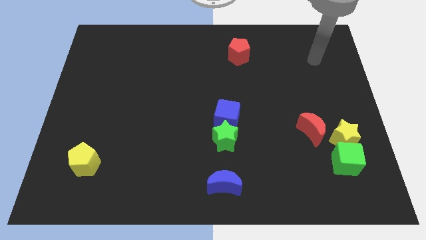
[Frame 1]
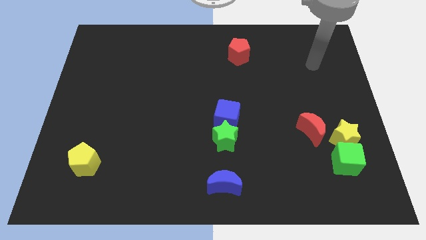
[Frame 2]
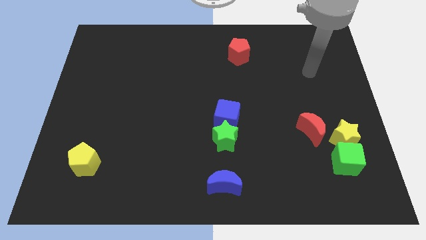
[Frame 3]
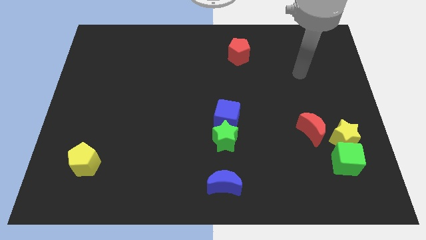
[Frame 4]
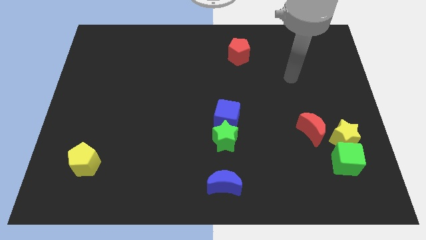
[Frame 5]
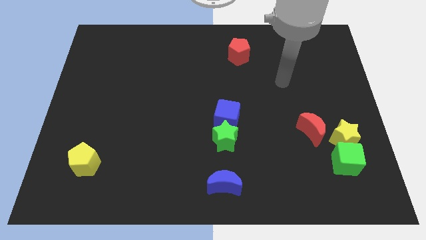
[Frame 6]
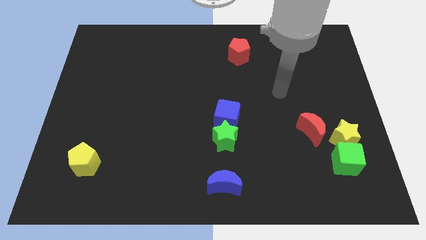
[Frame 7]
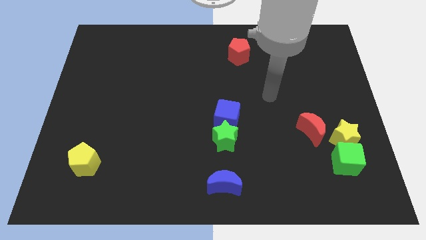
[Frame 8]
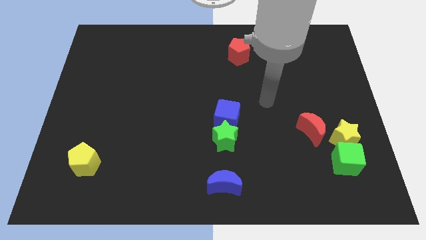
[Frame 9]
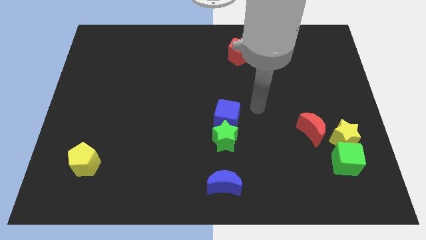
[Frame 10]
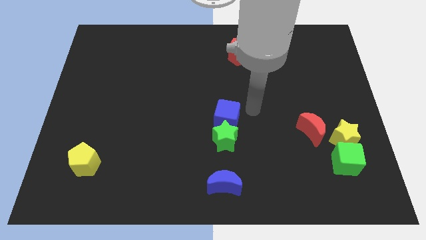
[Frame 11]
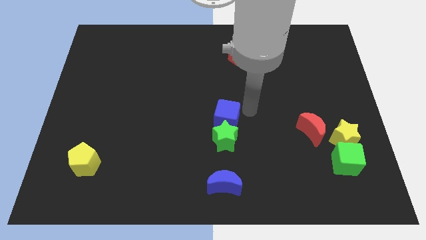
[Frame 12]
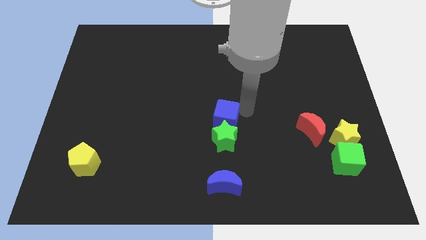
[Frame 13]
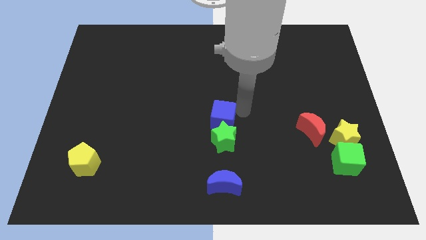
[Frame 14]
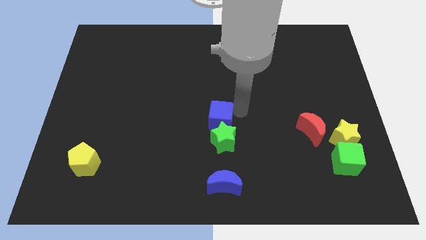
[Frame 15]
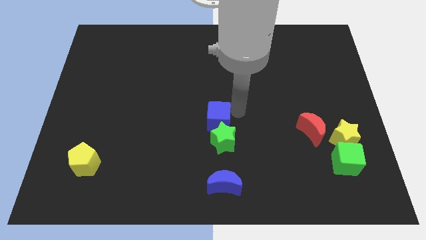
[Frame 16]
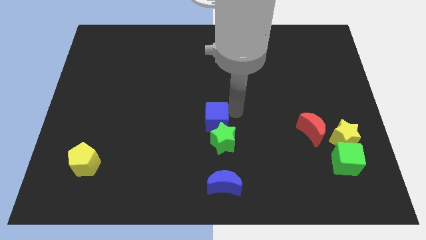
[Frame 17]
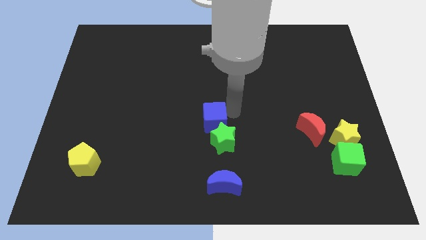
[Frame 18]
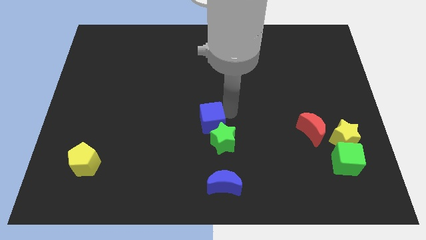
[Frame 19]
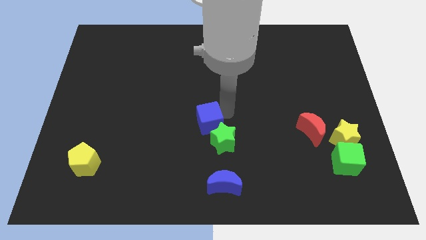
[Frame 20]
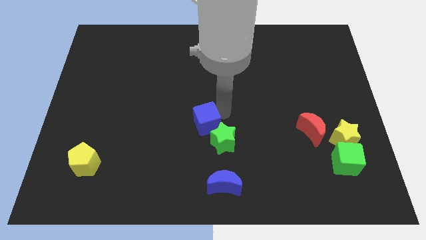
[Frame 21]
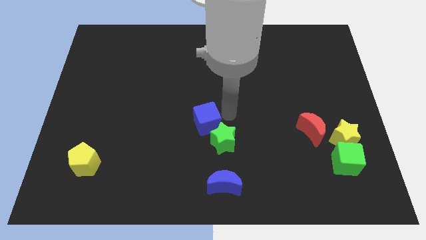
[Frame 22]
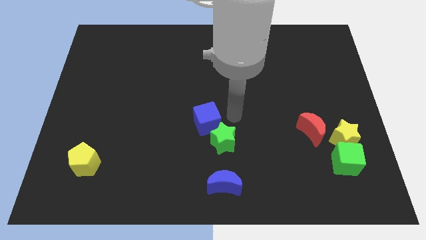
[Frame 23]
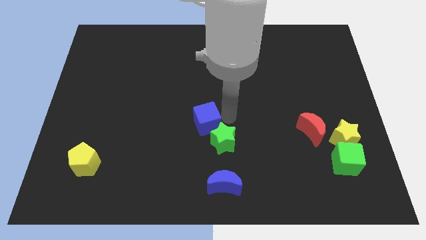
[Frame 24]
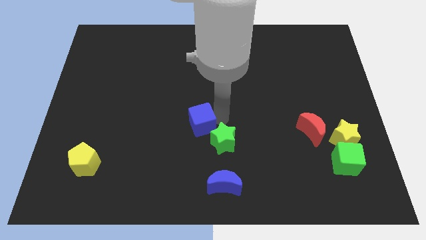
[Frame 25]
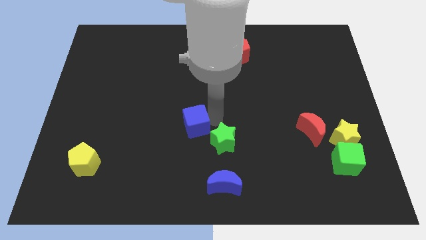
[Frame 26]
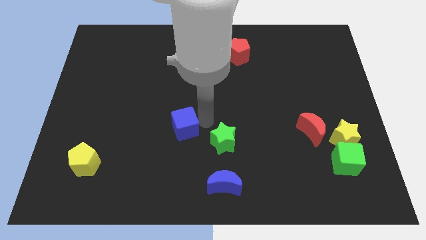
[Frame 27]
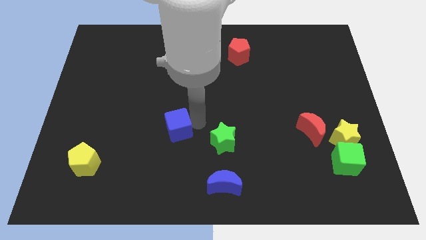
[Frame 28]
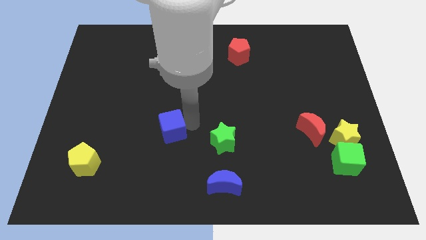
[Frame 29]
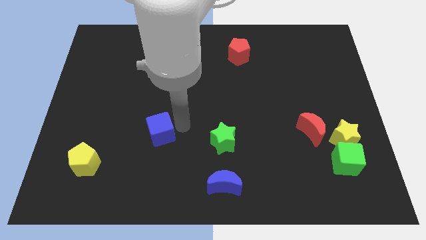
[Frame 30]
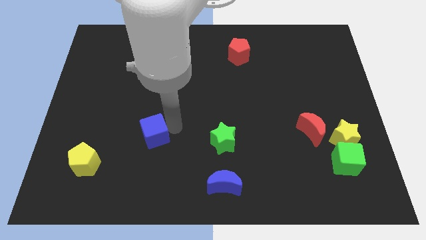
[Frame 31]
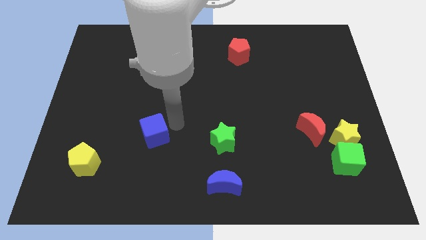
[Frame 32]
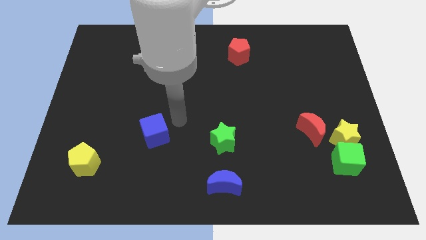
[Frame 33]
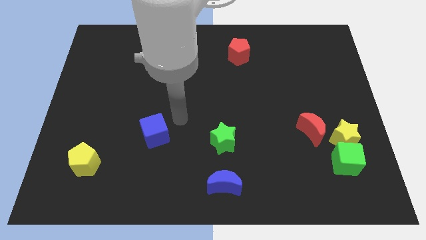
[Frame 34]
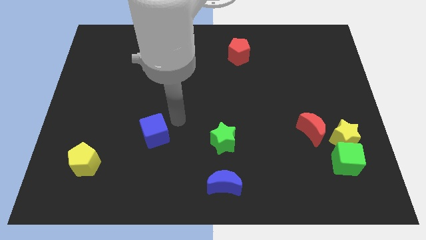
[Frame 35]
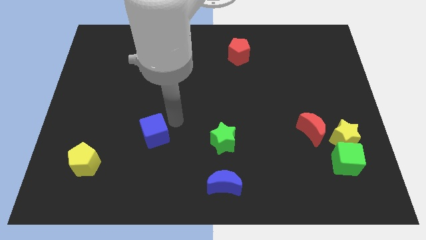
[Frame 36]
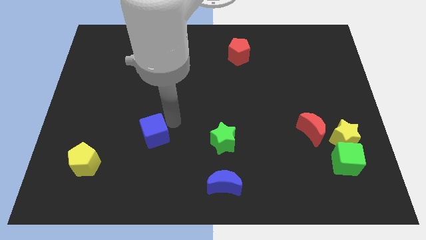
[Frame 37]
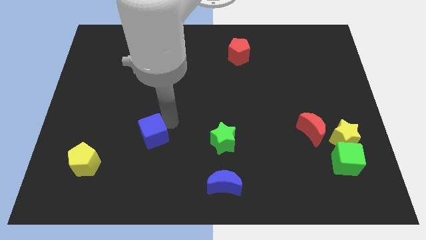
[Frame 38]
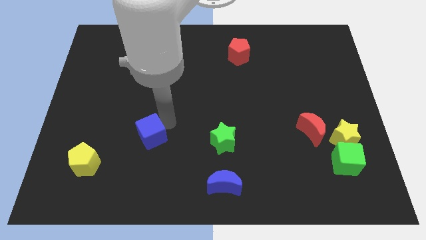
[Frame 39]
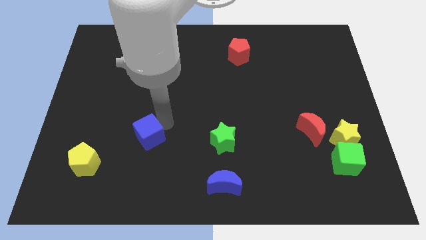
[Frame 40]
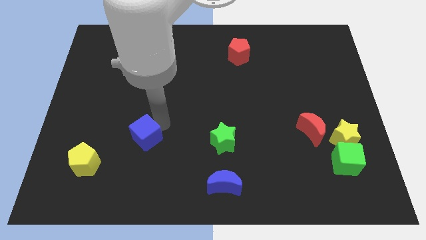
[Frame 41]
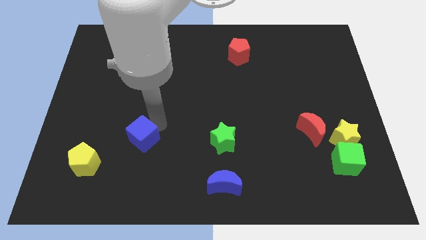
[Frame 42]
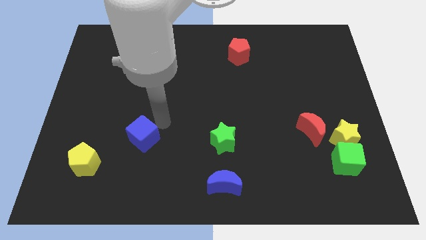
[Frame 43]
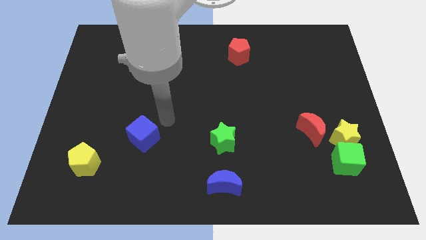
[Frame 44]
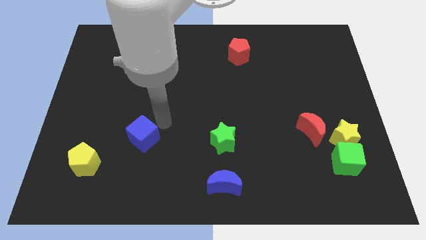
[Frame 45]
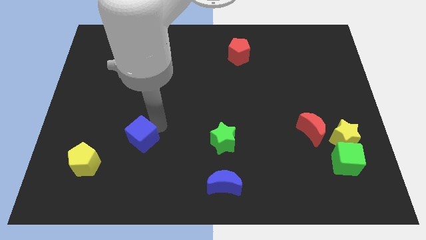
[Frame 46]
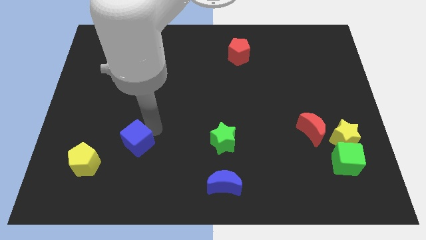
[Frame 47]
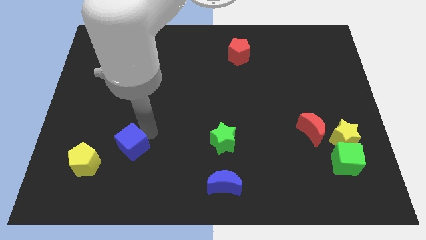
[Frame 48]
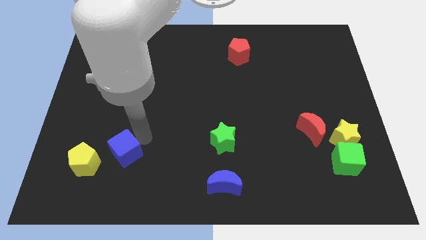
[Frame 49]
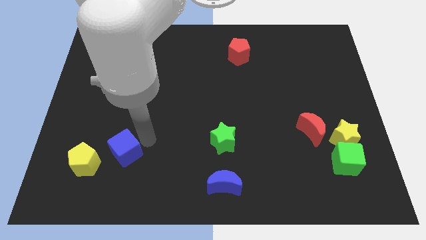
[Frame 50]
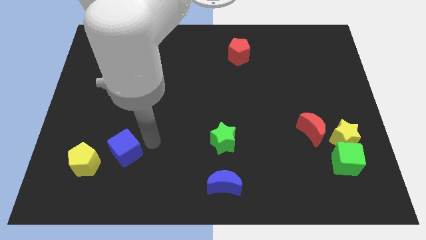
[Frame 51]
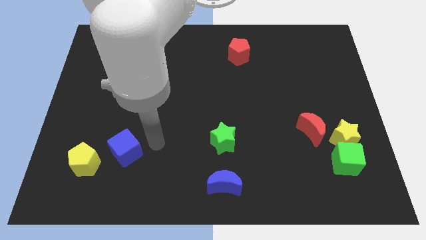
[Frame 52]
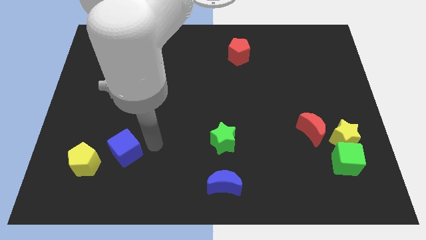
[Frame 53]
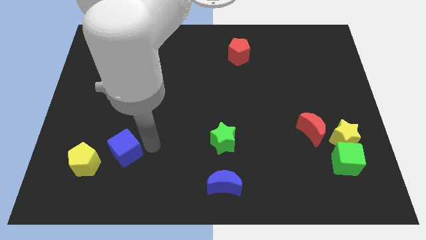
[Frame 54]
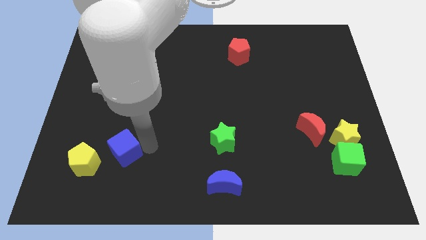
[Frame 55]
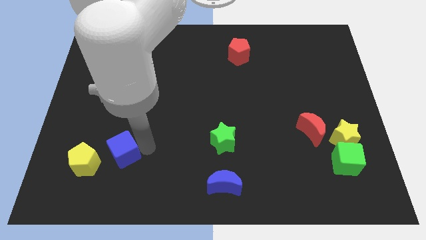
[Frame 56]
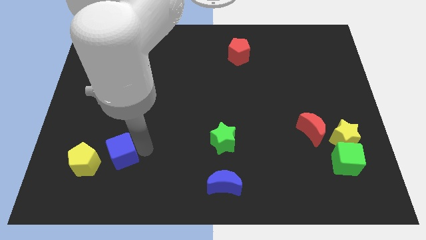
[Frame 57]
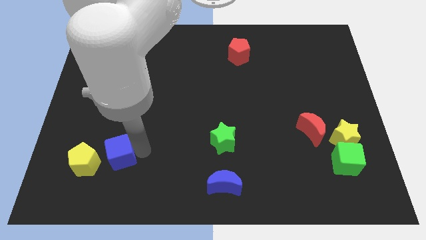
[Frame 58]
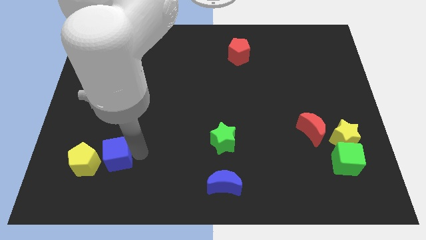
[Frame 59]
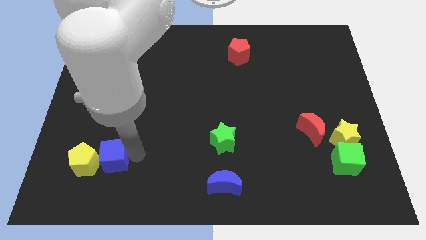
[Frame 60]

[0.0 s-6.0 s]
move the blue cube close to the yellow pentagon

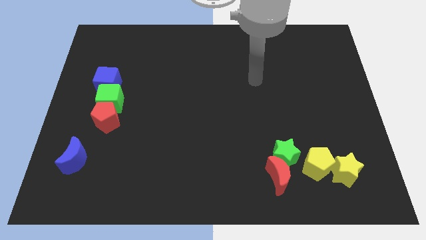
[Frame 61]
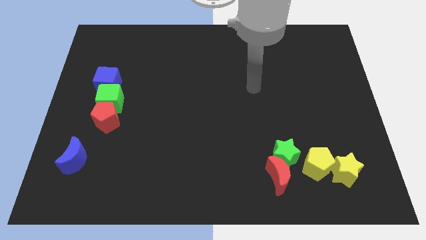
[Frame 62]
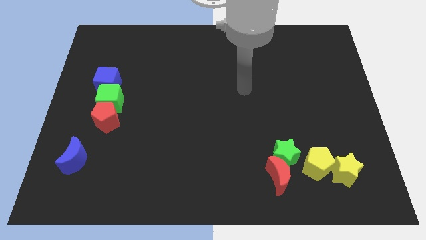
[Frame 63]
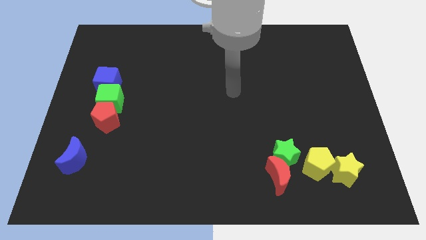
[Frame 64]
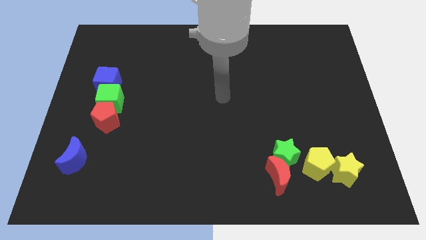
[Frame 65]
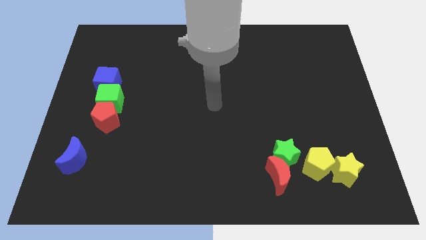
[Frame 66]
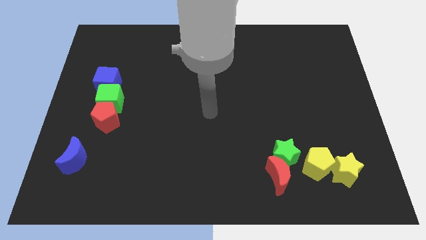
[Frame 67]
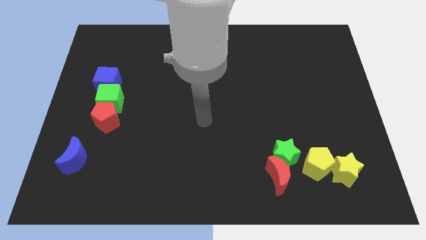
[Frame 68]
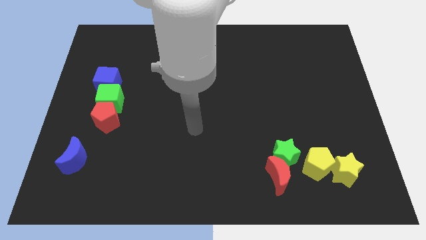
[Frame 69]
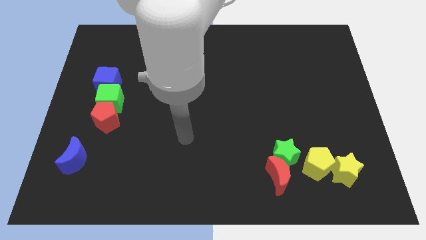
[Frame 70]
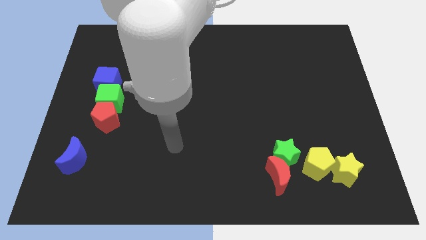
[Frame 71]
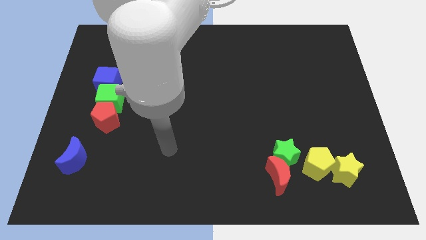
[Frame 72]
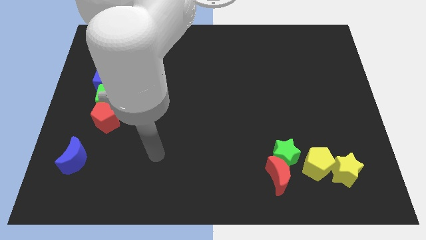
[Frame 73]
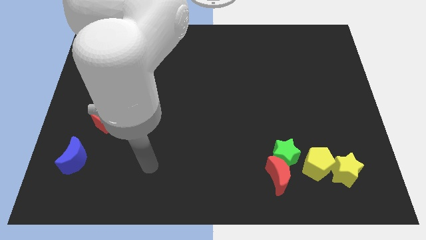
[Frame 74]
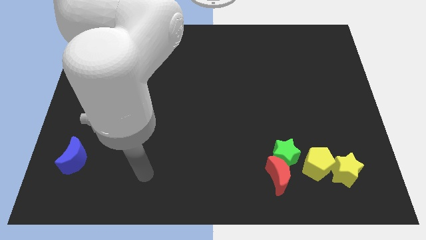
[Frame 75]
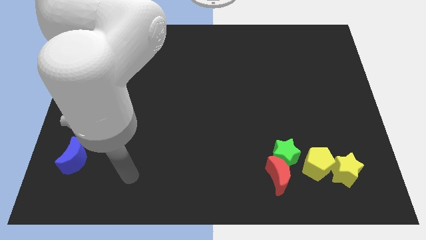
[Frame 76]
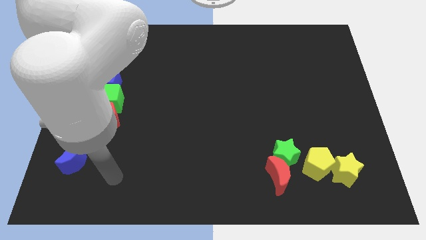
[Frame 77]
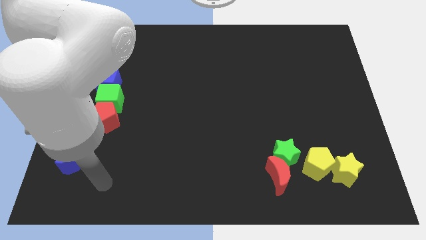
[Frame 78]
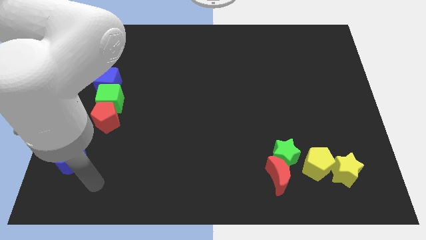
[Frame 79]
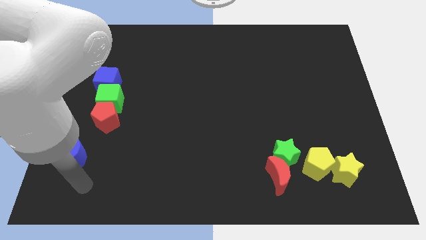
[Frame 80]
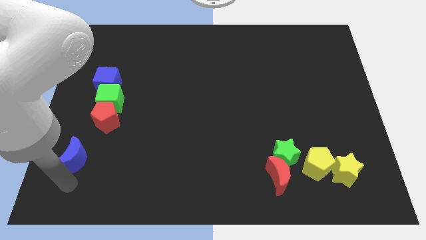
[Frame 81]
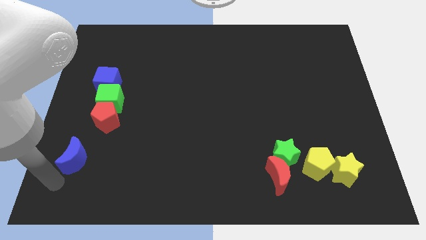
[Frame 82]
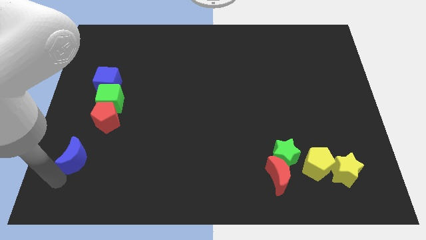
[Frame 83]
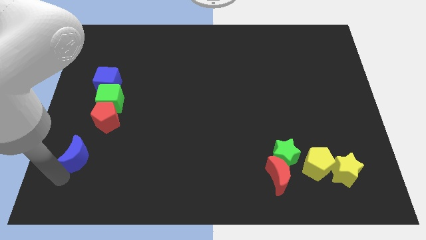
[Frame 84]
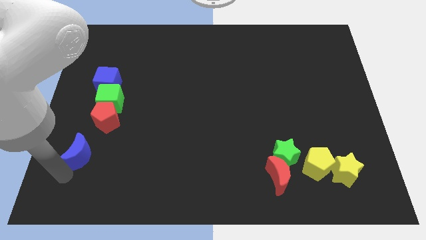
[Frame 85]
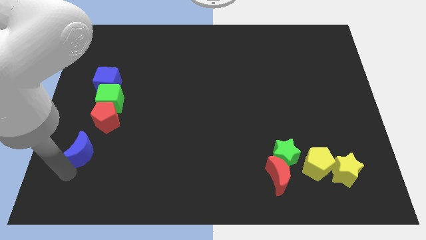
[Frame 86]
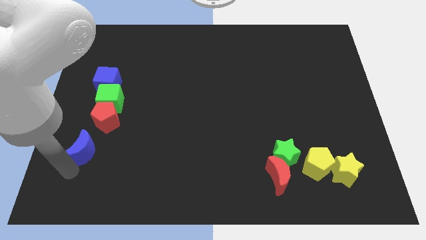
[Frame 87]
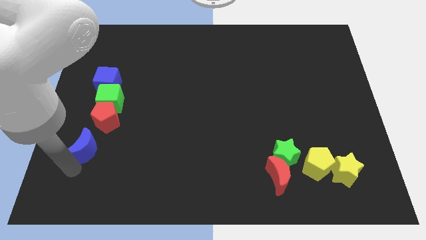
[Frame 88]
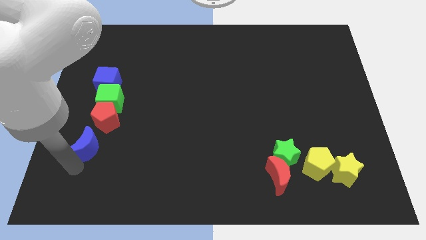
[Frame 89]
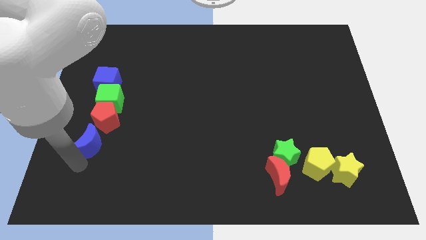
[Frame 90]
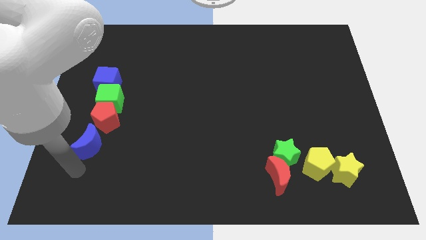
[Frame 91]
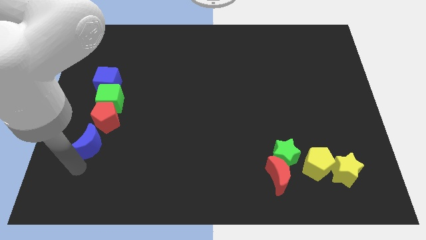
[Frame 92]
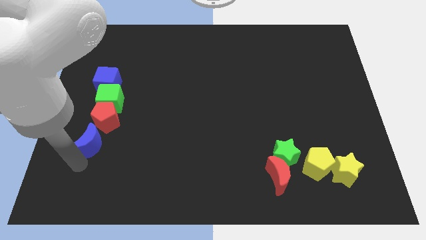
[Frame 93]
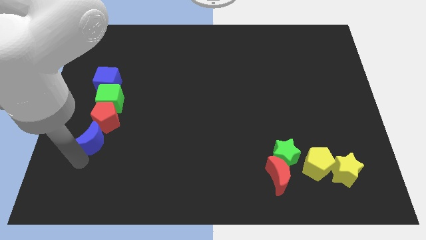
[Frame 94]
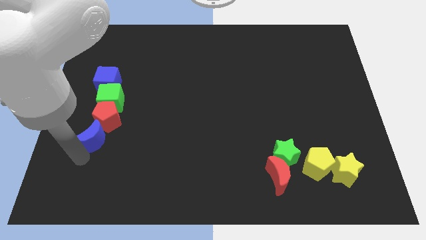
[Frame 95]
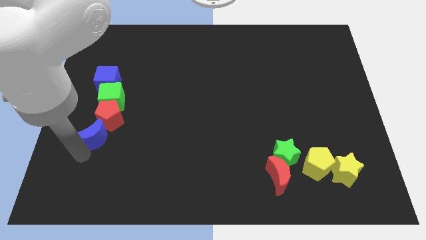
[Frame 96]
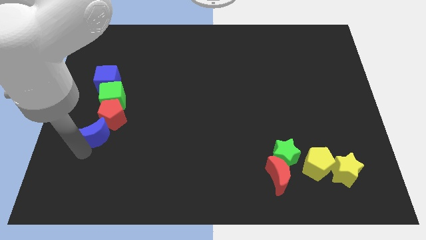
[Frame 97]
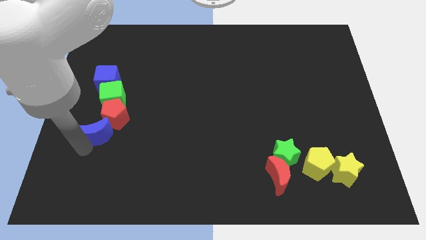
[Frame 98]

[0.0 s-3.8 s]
move the blue moon towards the red pentagon
